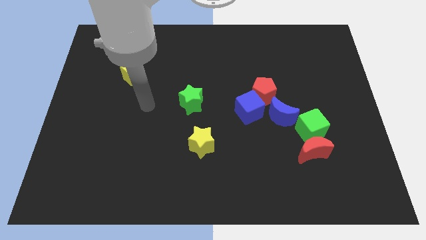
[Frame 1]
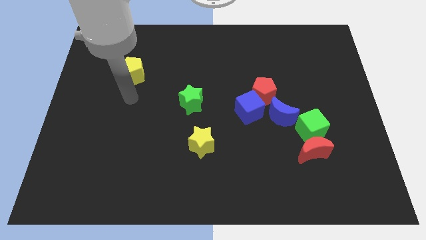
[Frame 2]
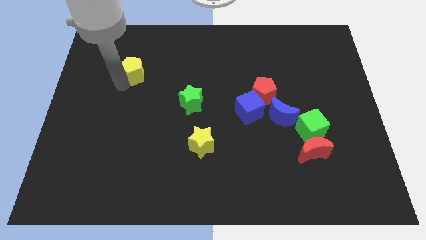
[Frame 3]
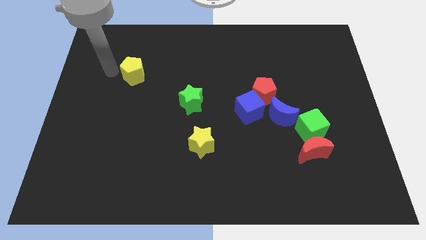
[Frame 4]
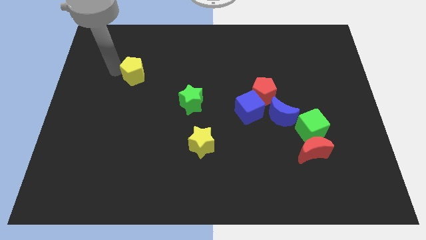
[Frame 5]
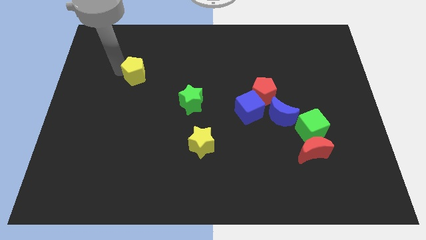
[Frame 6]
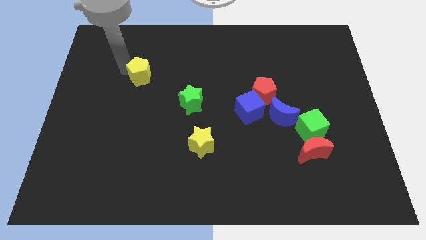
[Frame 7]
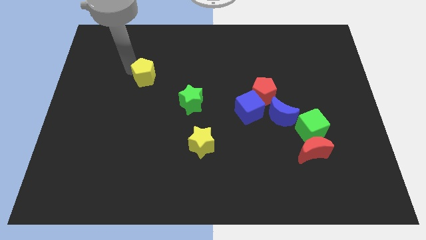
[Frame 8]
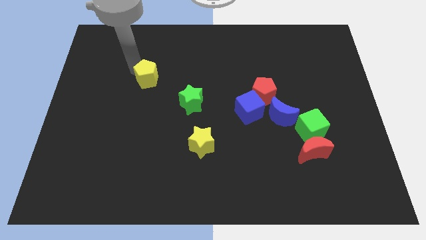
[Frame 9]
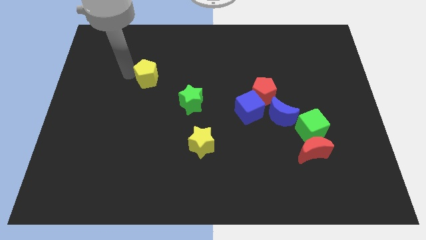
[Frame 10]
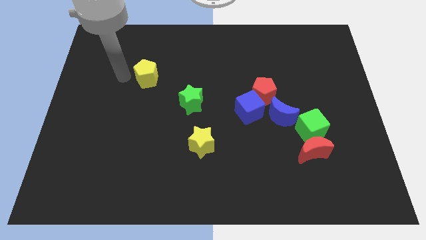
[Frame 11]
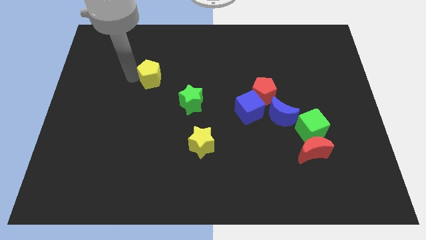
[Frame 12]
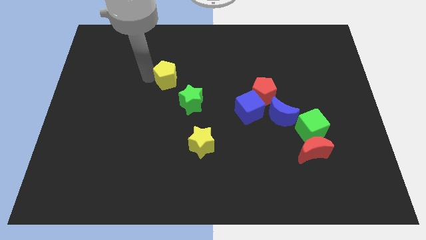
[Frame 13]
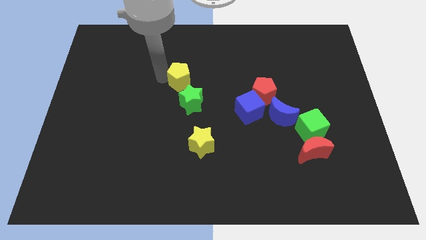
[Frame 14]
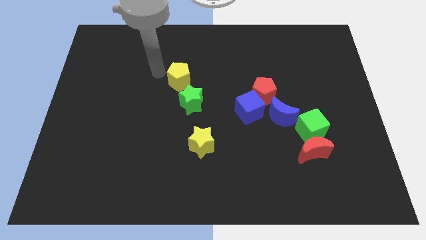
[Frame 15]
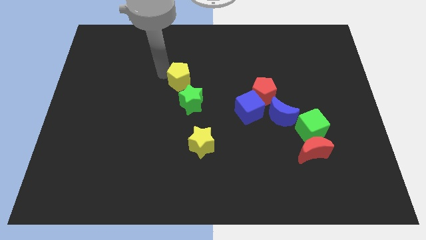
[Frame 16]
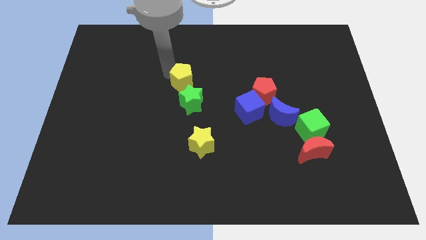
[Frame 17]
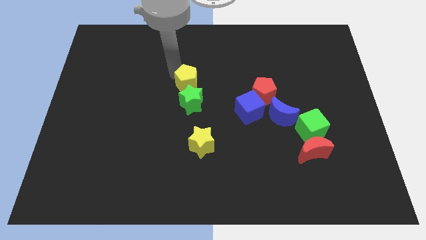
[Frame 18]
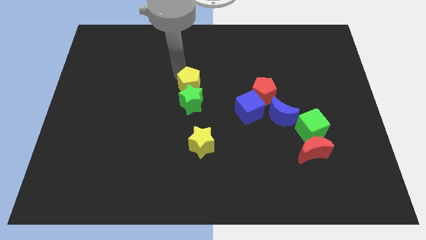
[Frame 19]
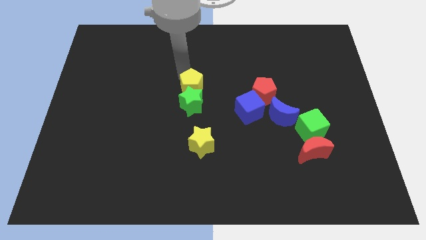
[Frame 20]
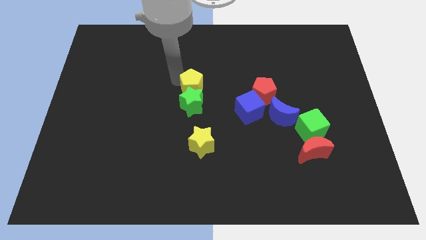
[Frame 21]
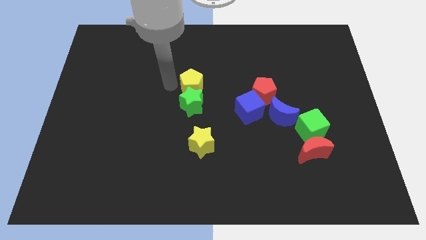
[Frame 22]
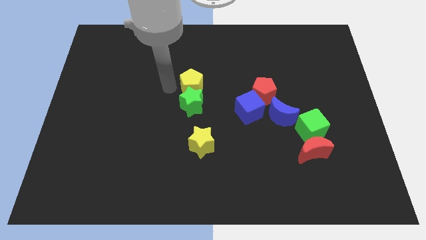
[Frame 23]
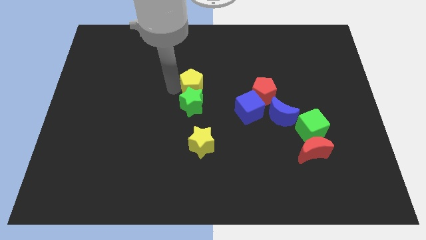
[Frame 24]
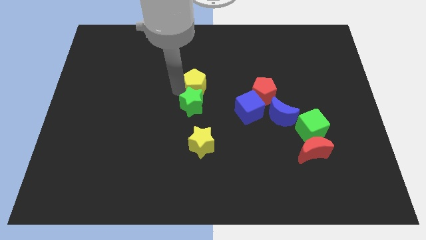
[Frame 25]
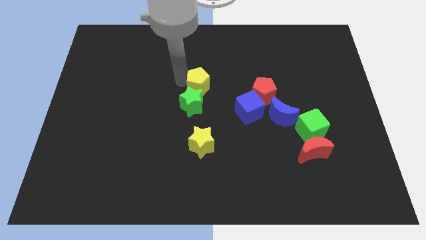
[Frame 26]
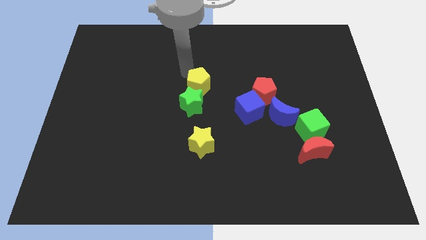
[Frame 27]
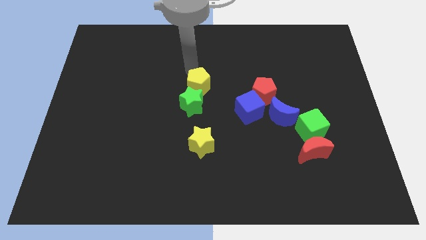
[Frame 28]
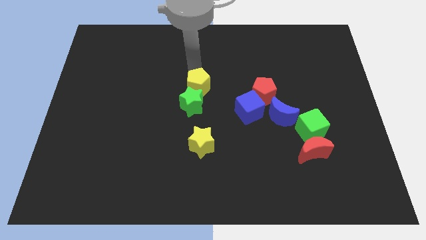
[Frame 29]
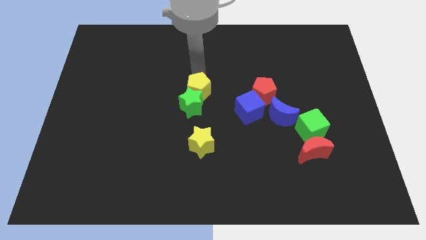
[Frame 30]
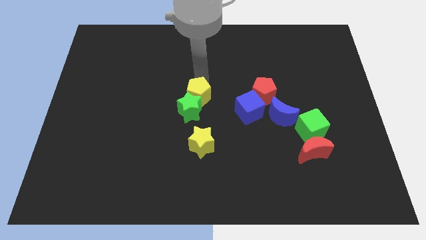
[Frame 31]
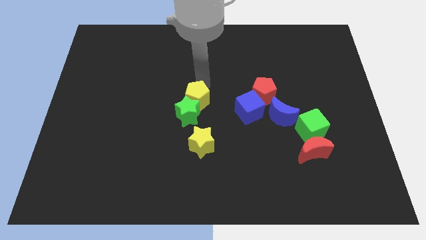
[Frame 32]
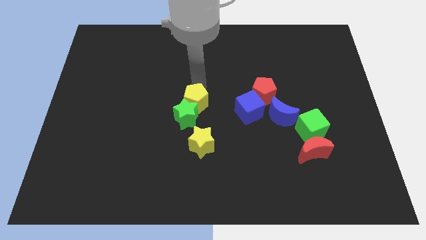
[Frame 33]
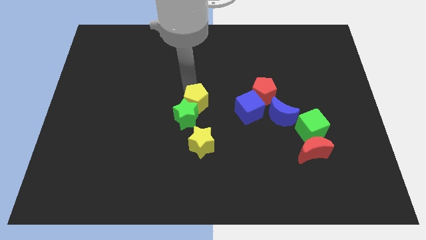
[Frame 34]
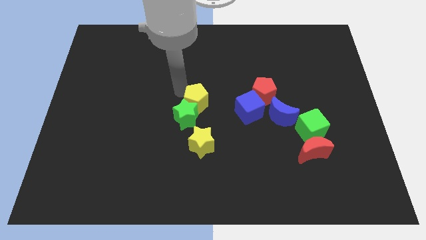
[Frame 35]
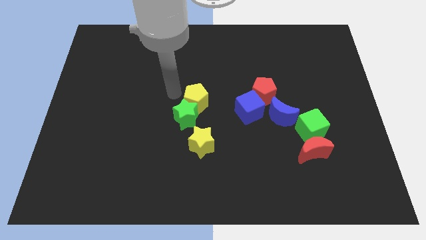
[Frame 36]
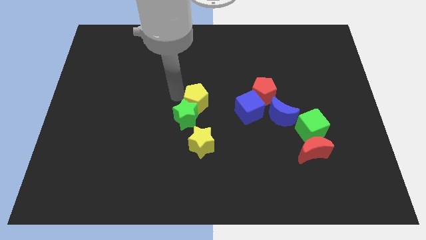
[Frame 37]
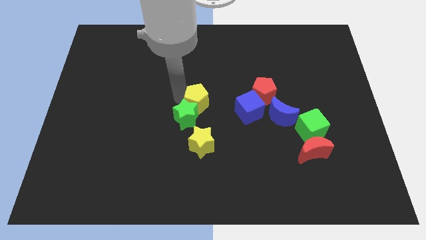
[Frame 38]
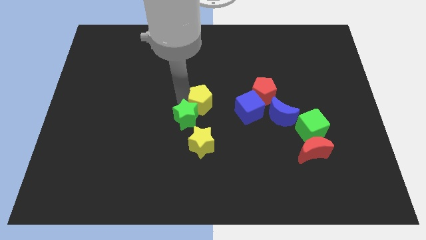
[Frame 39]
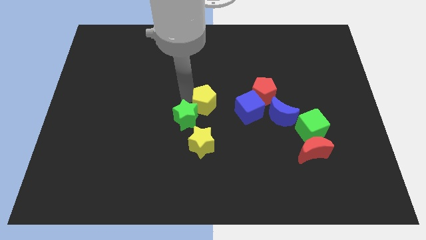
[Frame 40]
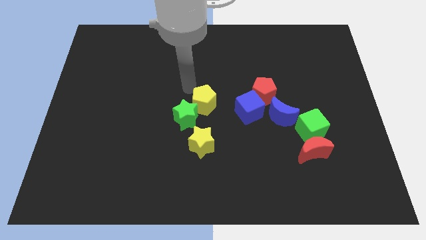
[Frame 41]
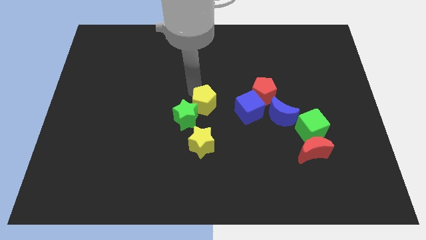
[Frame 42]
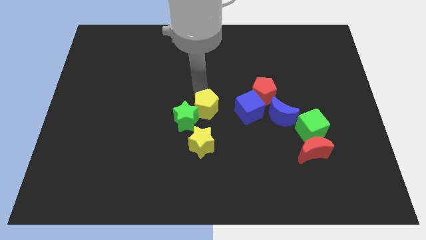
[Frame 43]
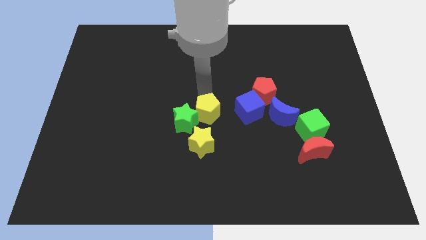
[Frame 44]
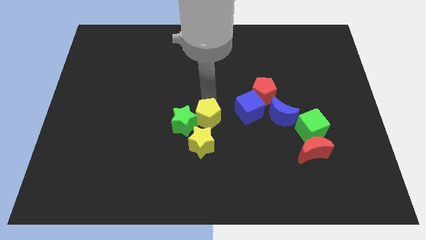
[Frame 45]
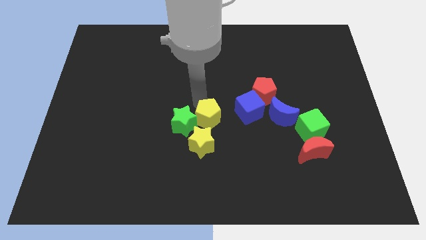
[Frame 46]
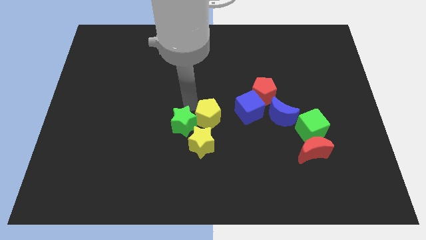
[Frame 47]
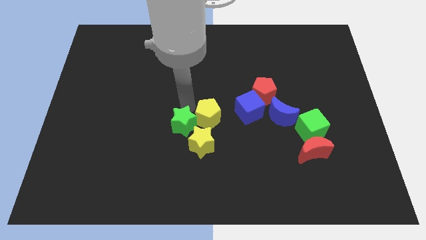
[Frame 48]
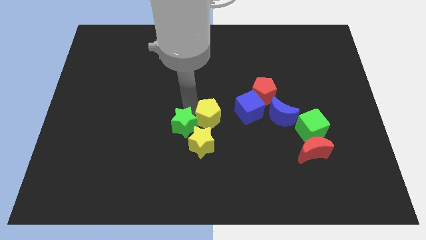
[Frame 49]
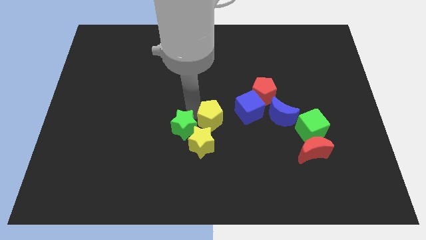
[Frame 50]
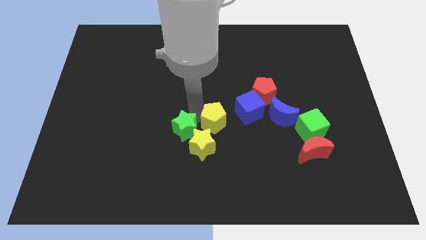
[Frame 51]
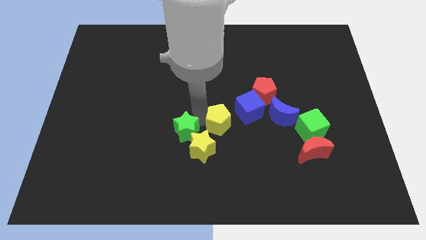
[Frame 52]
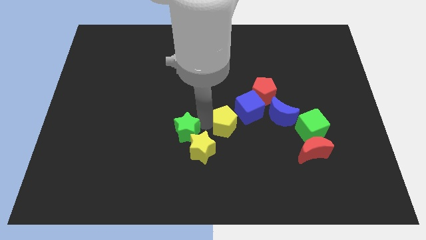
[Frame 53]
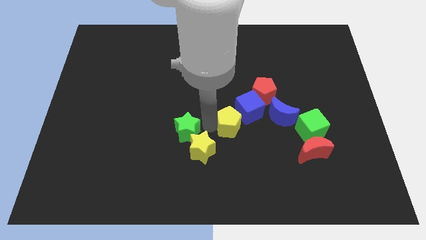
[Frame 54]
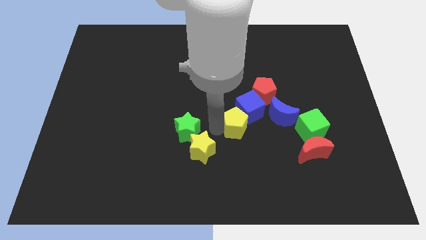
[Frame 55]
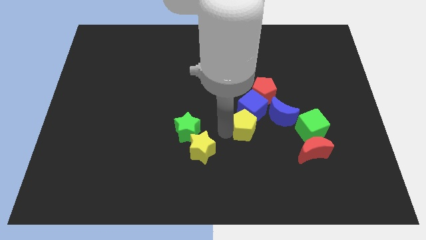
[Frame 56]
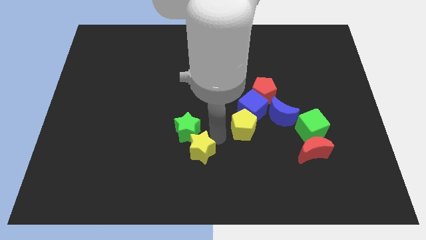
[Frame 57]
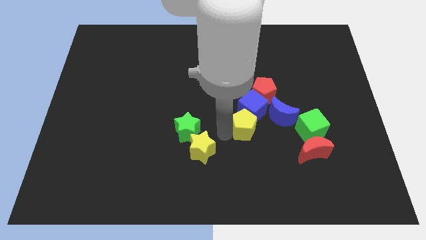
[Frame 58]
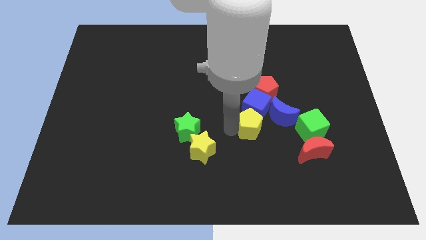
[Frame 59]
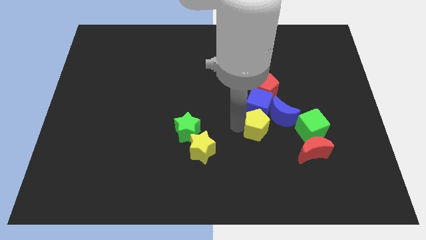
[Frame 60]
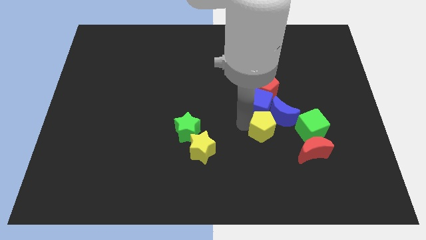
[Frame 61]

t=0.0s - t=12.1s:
move the yellow pentagon towards the blue moon

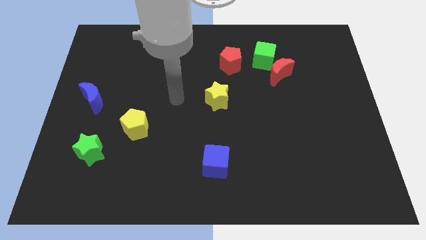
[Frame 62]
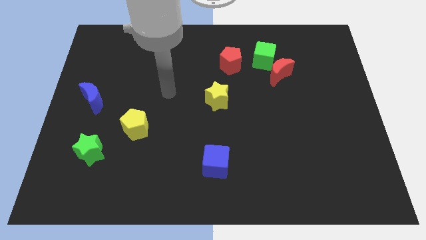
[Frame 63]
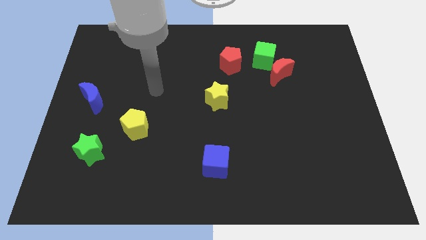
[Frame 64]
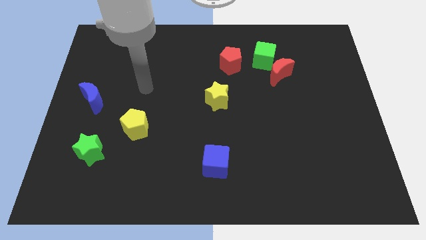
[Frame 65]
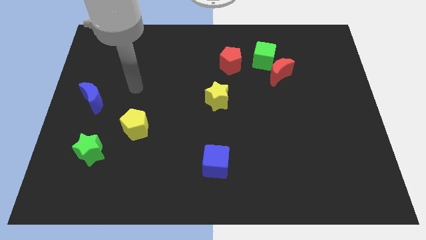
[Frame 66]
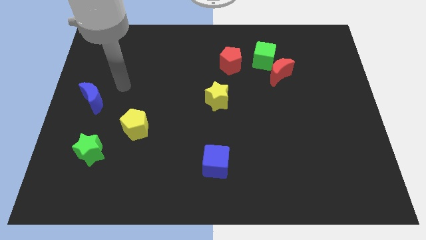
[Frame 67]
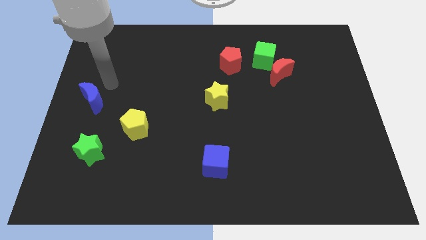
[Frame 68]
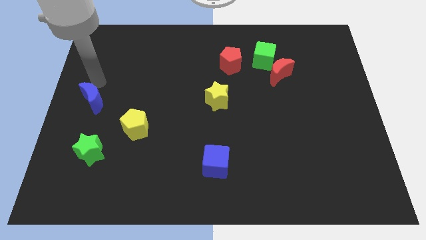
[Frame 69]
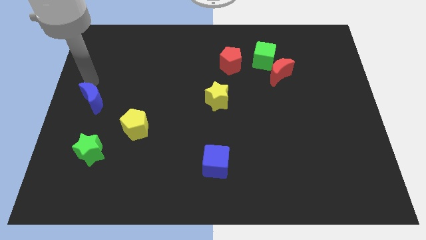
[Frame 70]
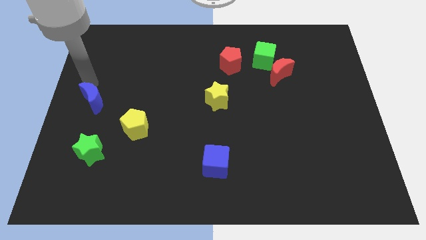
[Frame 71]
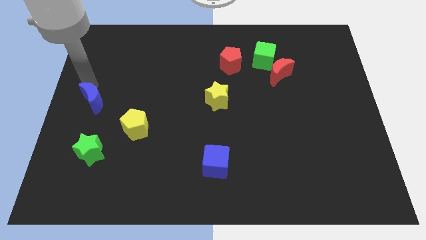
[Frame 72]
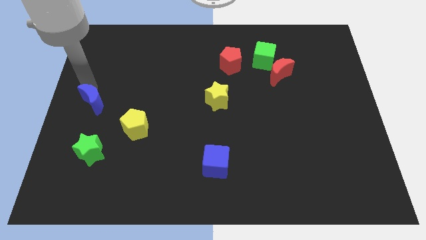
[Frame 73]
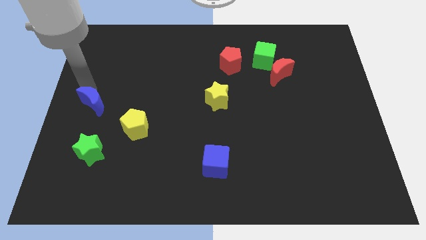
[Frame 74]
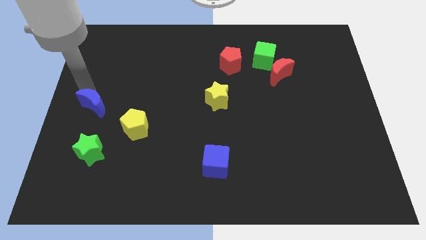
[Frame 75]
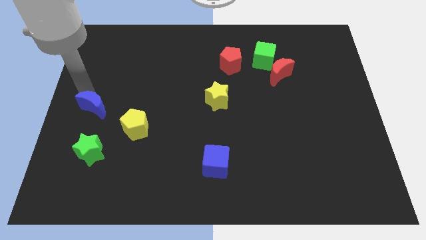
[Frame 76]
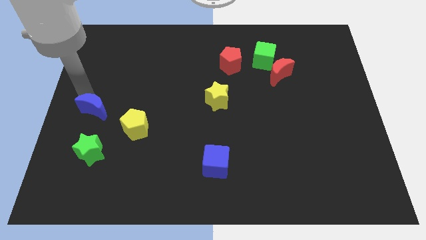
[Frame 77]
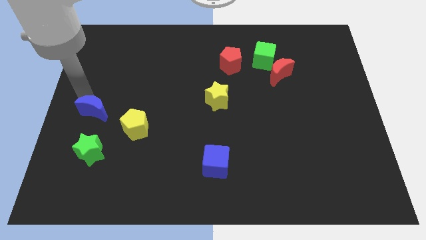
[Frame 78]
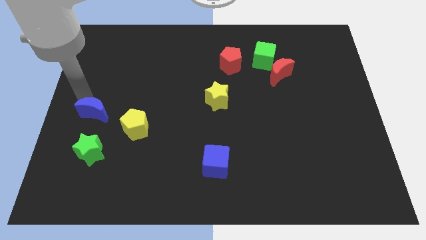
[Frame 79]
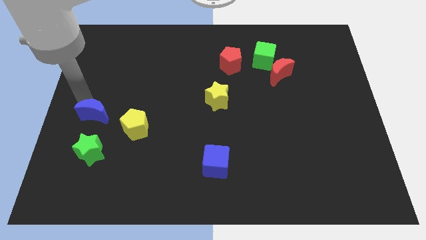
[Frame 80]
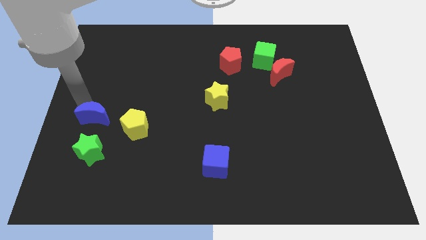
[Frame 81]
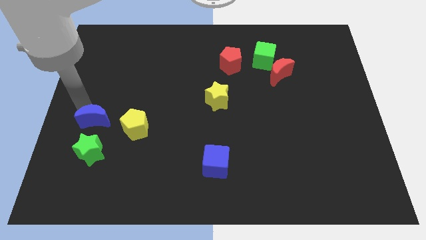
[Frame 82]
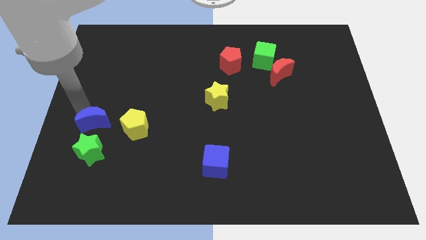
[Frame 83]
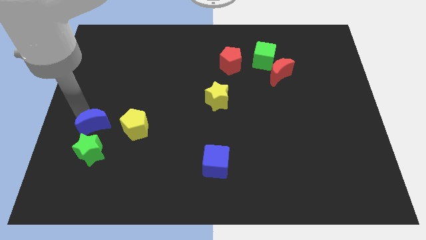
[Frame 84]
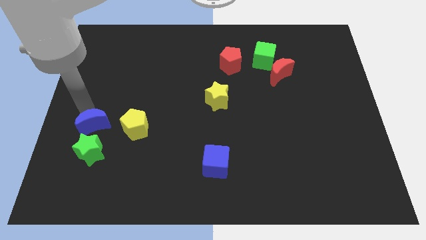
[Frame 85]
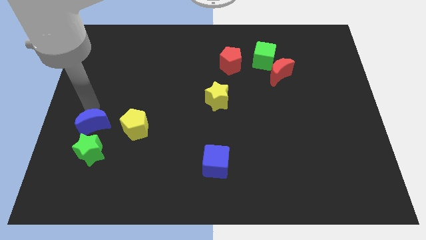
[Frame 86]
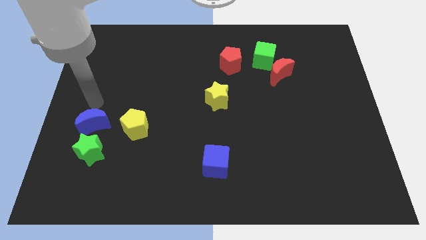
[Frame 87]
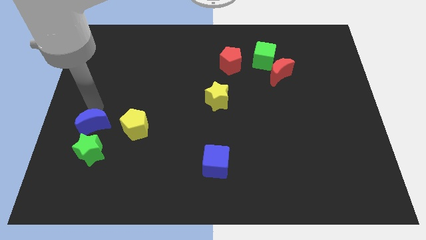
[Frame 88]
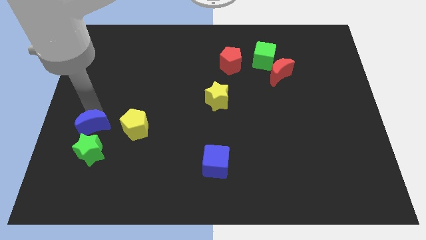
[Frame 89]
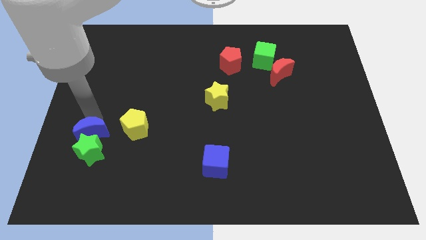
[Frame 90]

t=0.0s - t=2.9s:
put the blue moon to the green star
